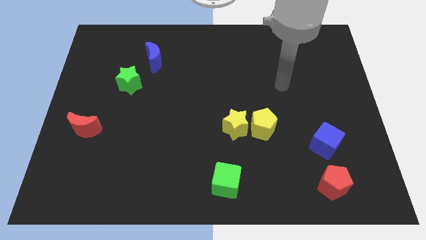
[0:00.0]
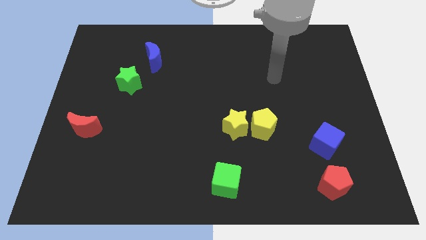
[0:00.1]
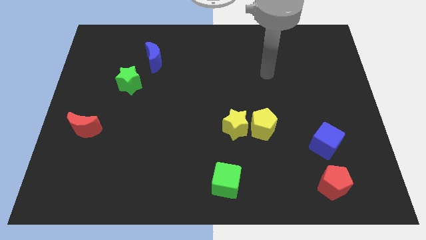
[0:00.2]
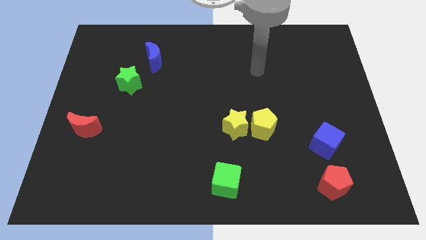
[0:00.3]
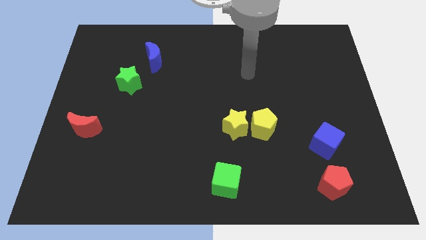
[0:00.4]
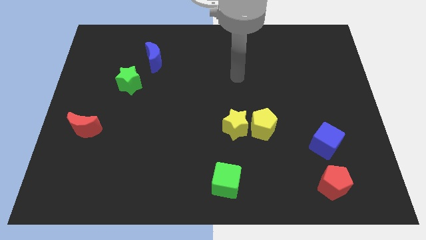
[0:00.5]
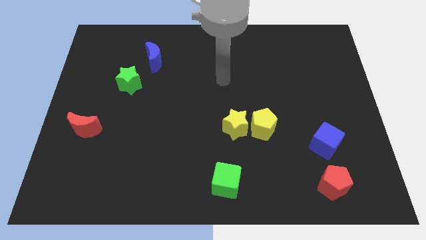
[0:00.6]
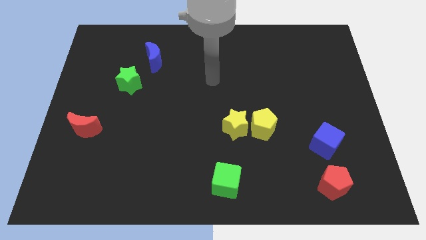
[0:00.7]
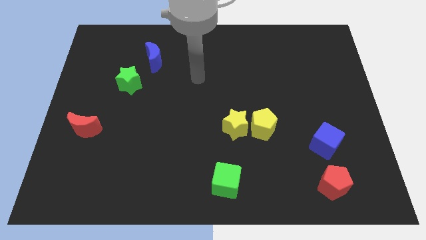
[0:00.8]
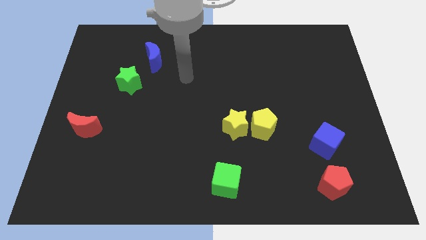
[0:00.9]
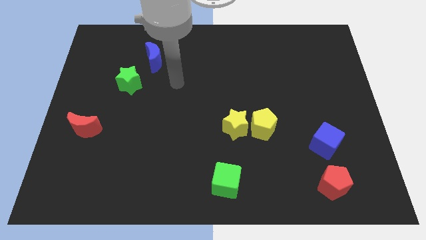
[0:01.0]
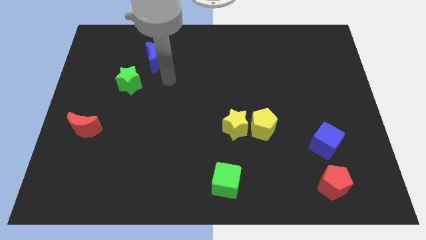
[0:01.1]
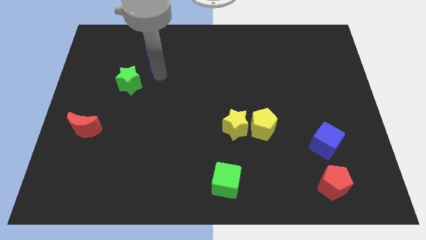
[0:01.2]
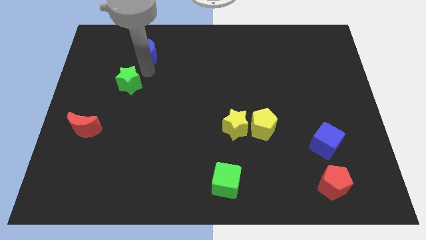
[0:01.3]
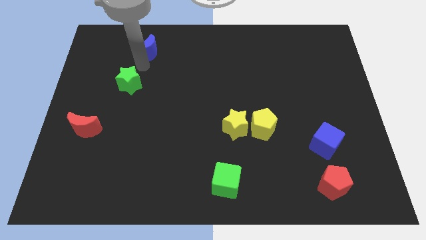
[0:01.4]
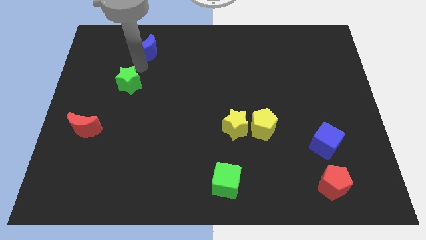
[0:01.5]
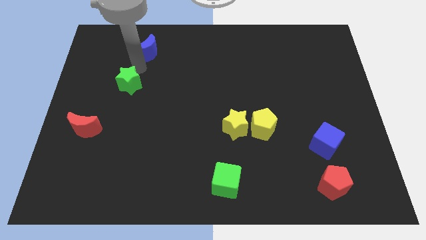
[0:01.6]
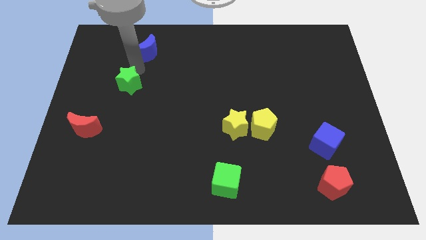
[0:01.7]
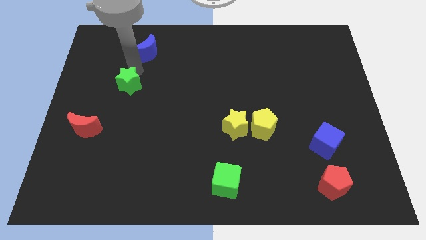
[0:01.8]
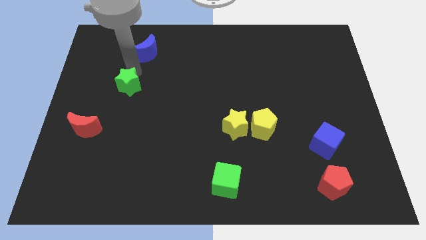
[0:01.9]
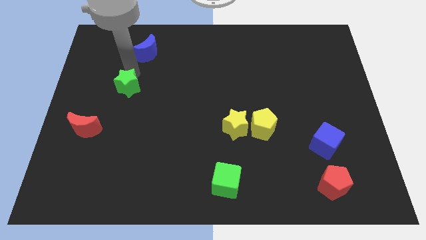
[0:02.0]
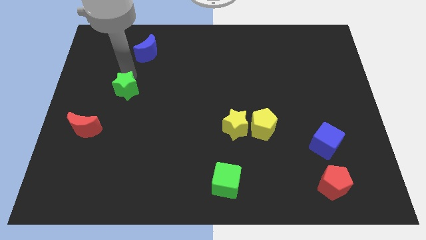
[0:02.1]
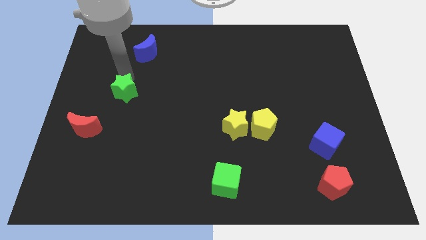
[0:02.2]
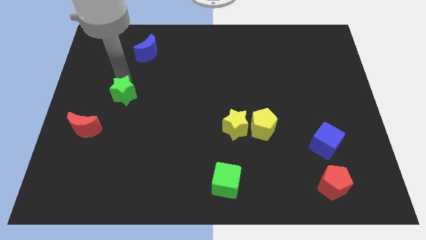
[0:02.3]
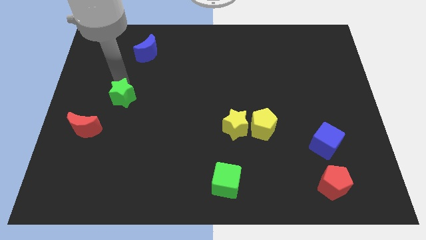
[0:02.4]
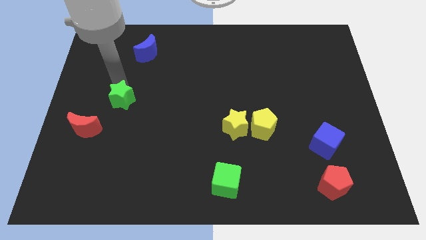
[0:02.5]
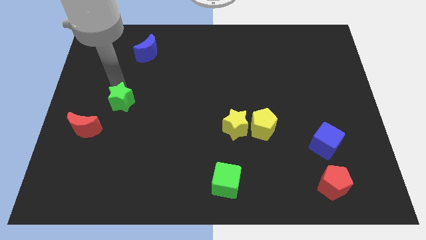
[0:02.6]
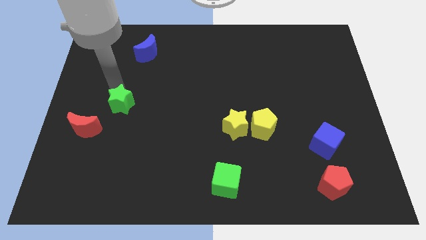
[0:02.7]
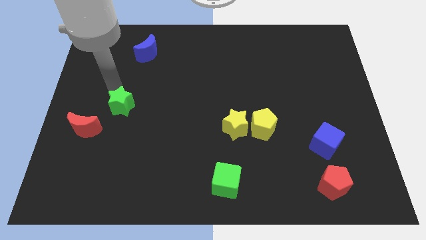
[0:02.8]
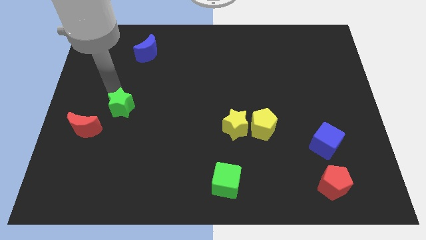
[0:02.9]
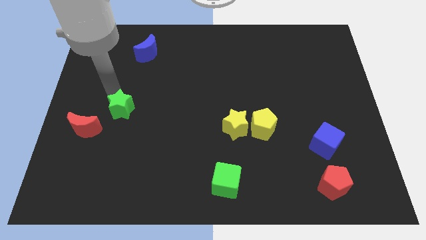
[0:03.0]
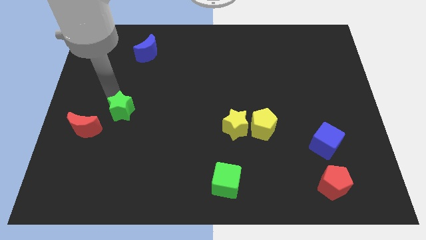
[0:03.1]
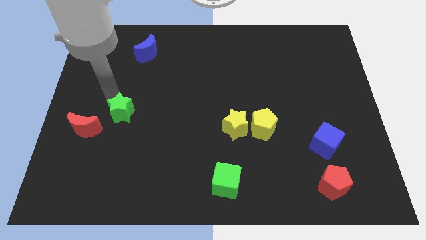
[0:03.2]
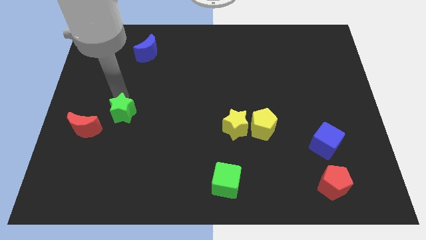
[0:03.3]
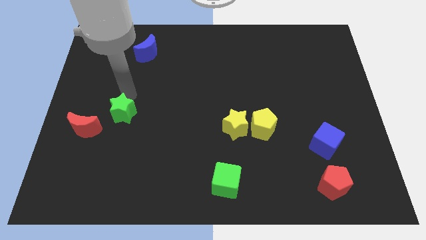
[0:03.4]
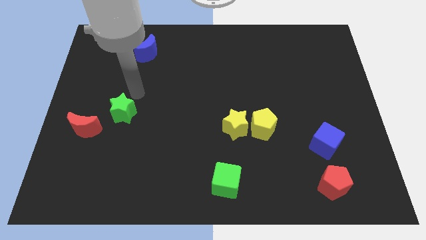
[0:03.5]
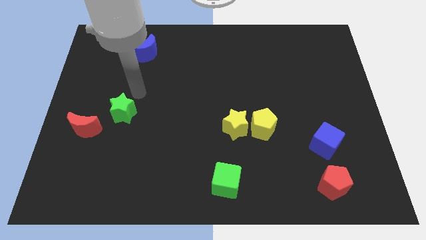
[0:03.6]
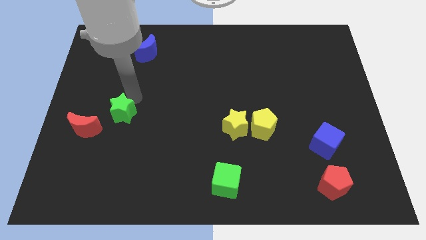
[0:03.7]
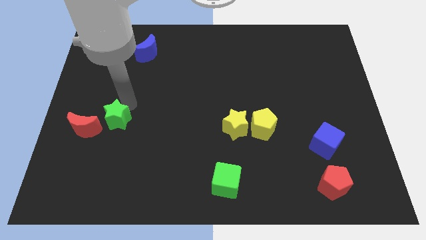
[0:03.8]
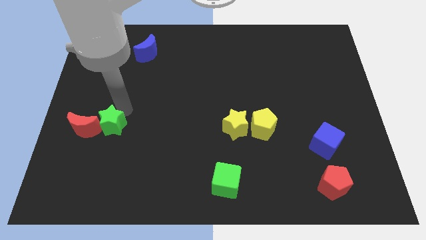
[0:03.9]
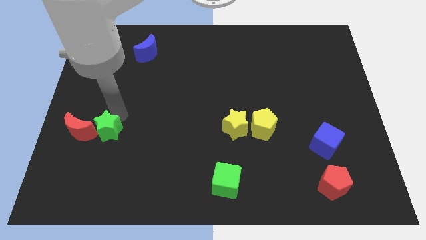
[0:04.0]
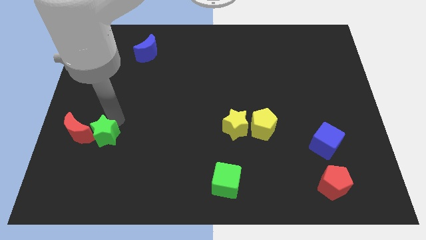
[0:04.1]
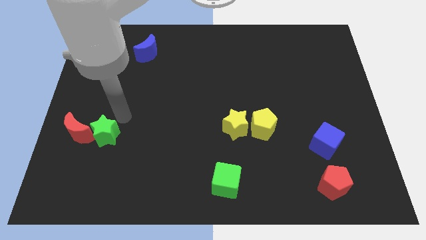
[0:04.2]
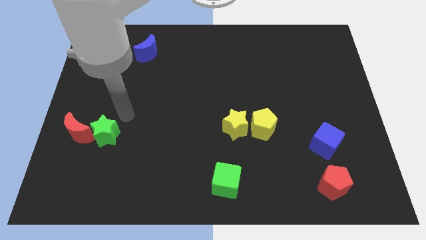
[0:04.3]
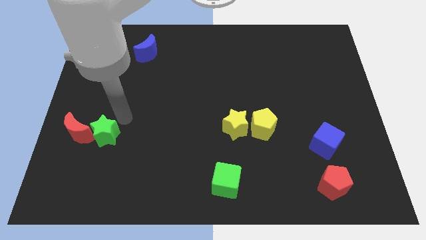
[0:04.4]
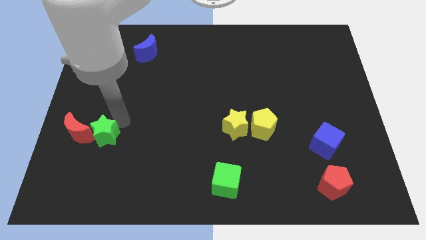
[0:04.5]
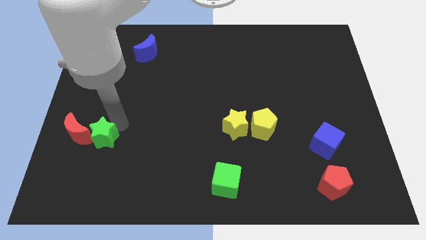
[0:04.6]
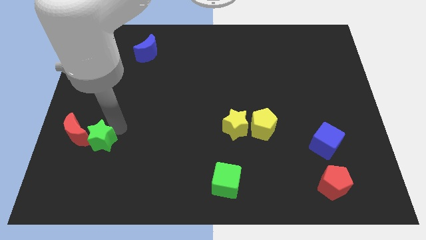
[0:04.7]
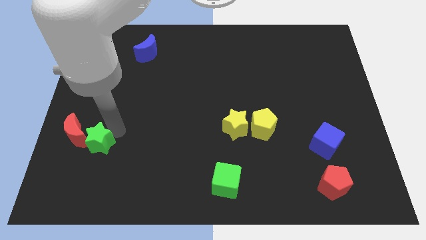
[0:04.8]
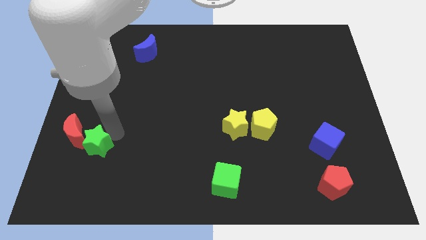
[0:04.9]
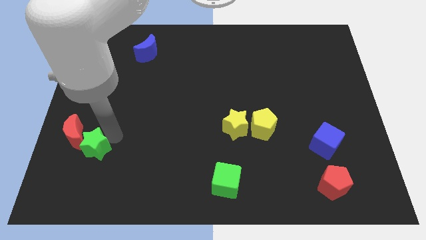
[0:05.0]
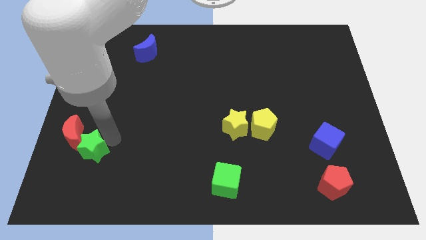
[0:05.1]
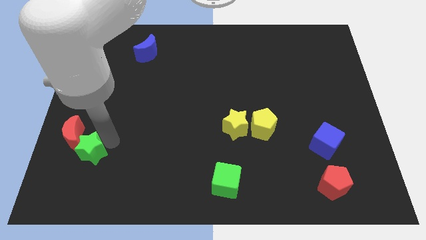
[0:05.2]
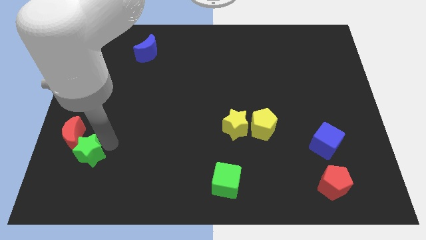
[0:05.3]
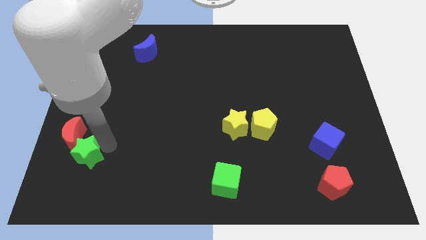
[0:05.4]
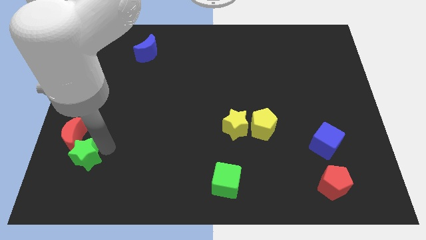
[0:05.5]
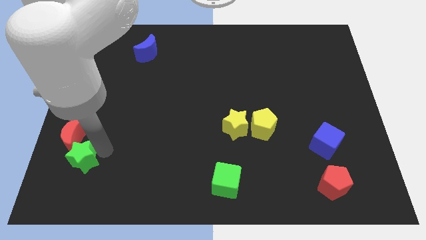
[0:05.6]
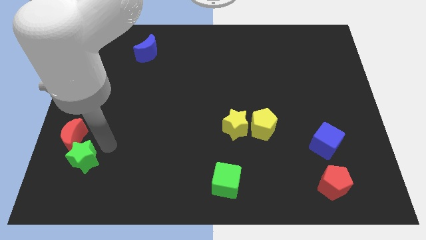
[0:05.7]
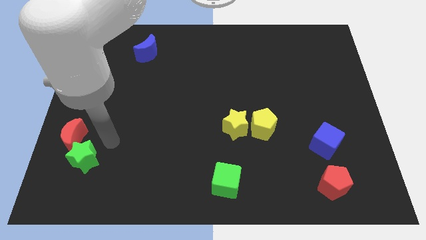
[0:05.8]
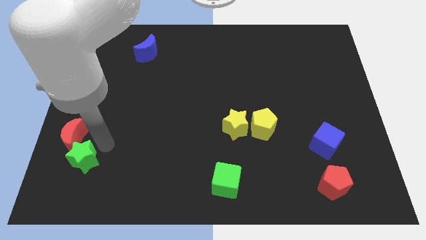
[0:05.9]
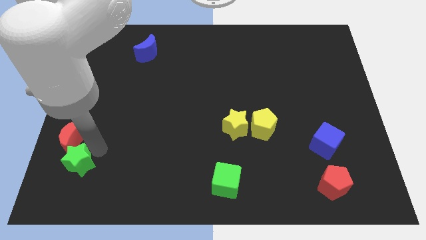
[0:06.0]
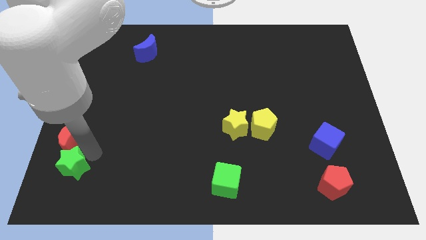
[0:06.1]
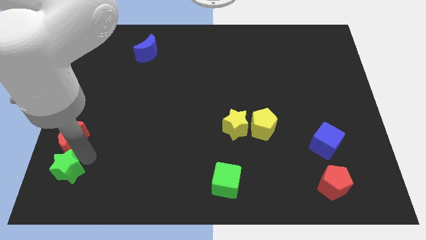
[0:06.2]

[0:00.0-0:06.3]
push the green star to the lower left corner

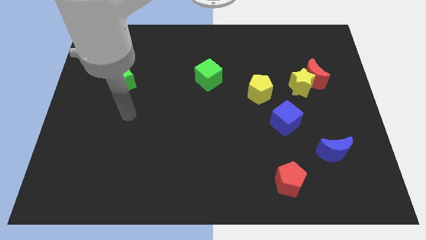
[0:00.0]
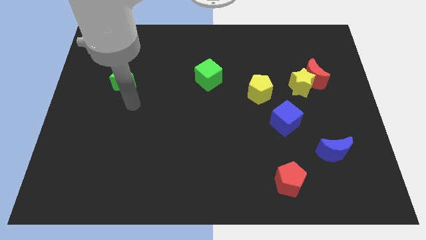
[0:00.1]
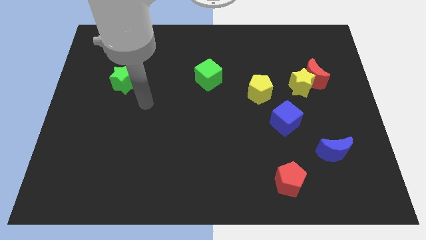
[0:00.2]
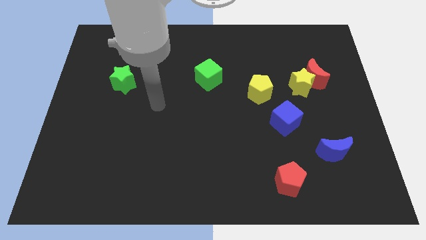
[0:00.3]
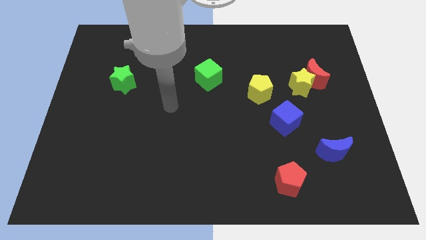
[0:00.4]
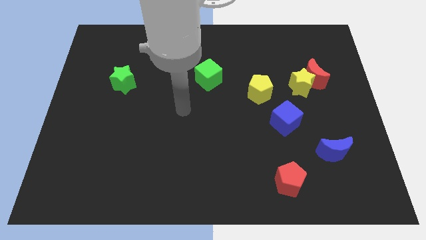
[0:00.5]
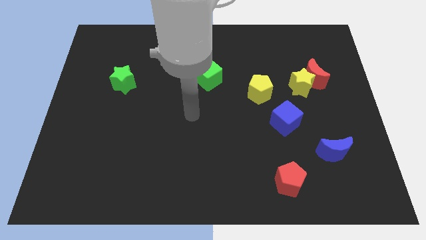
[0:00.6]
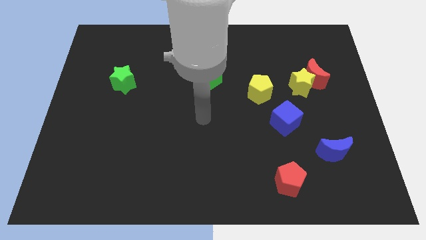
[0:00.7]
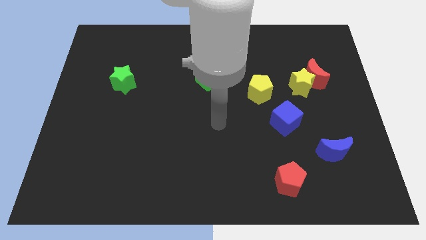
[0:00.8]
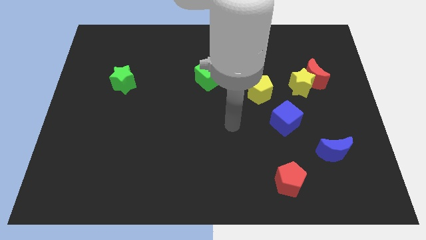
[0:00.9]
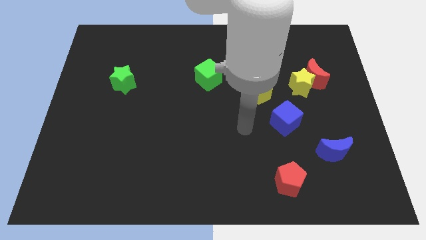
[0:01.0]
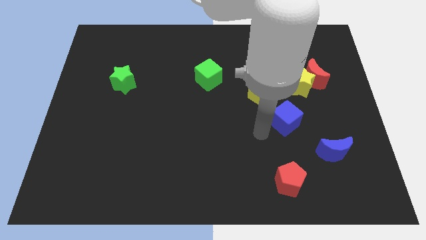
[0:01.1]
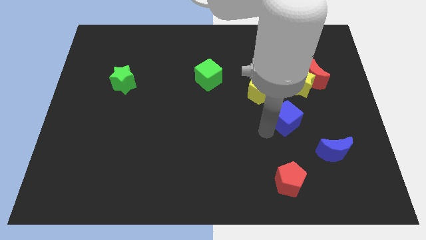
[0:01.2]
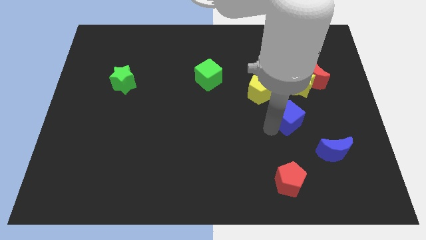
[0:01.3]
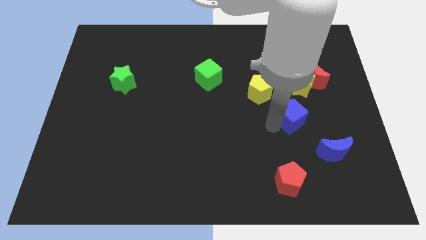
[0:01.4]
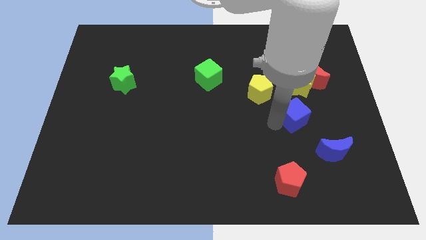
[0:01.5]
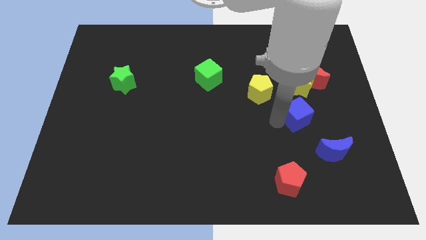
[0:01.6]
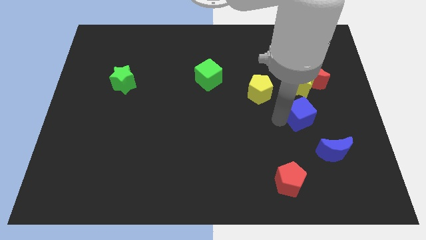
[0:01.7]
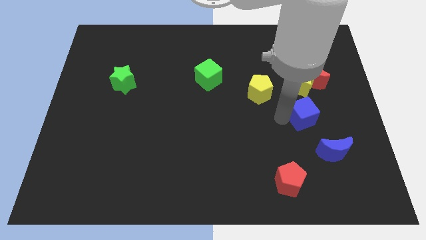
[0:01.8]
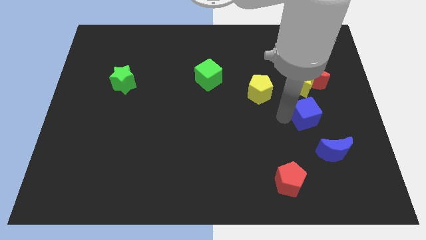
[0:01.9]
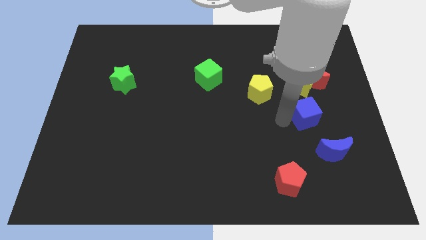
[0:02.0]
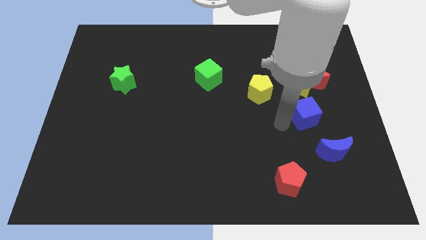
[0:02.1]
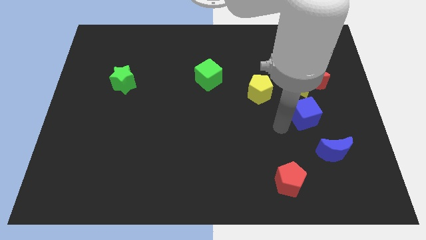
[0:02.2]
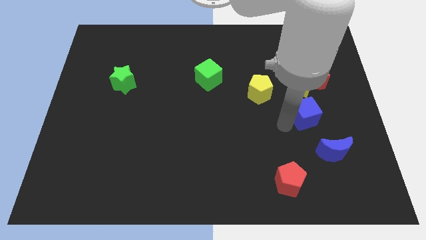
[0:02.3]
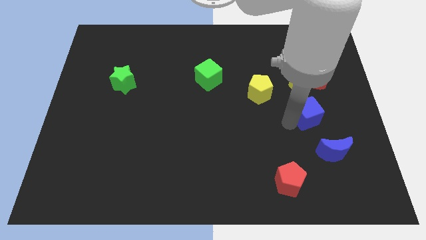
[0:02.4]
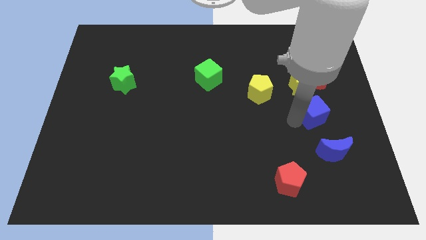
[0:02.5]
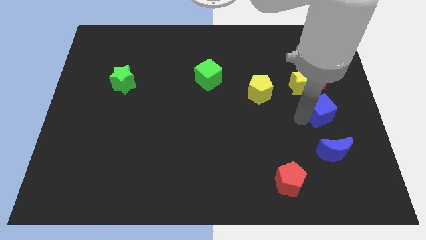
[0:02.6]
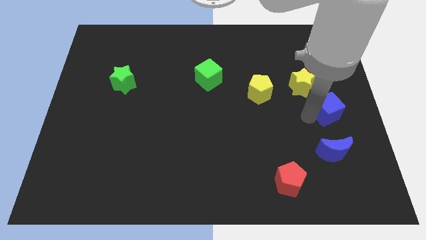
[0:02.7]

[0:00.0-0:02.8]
put the blue cube to the right side
